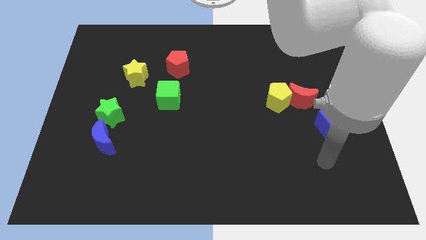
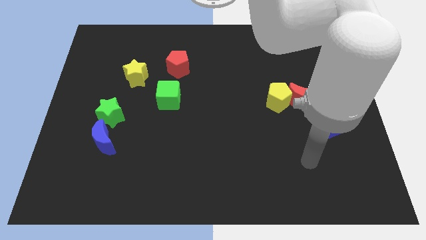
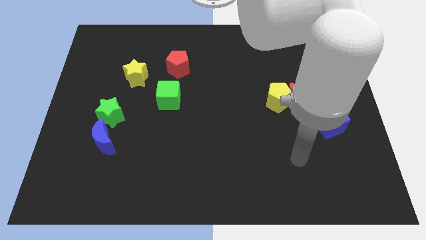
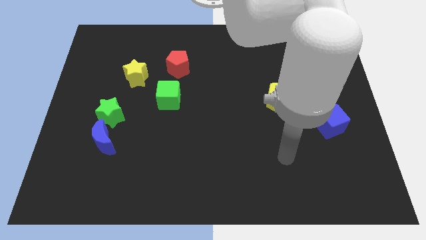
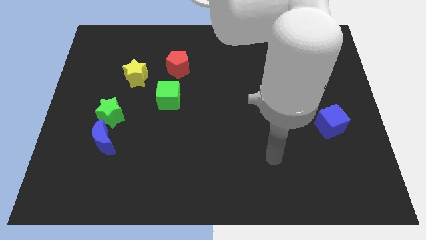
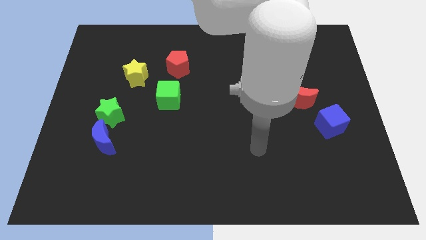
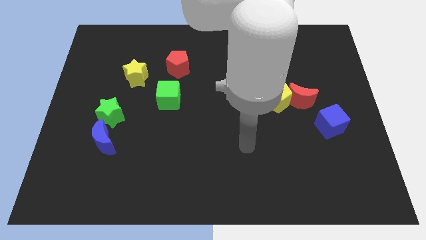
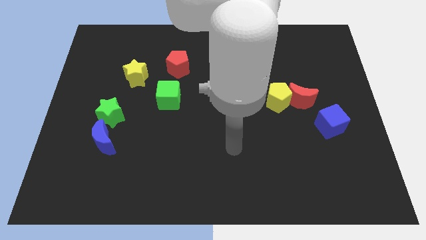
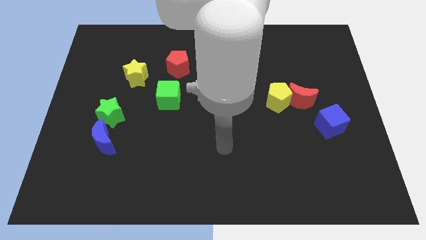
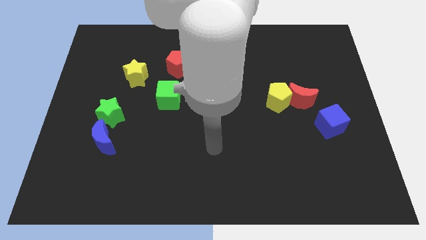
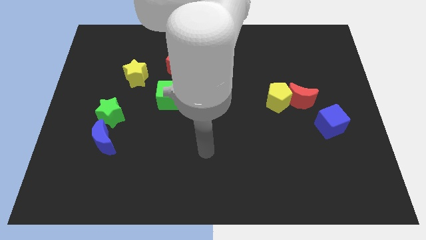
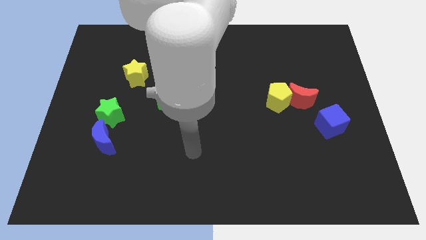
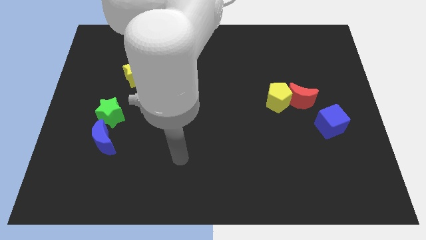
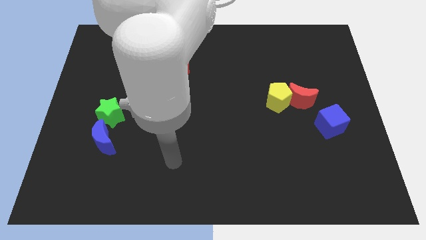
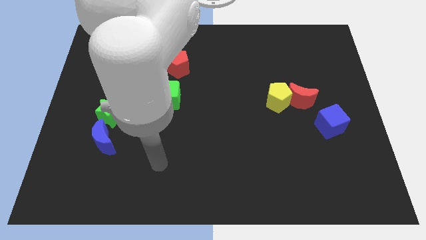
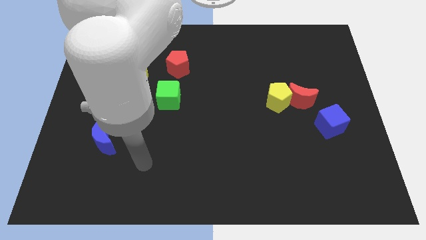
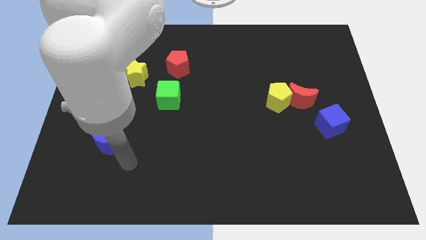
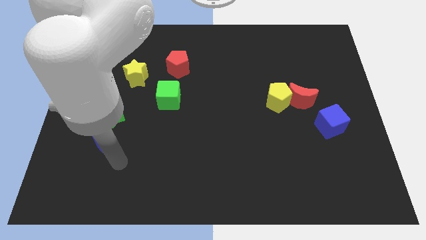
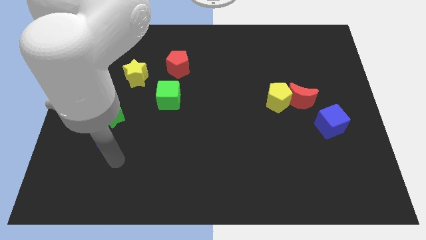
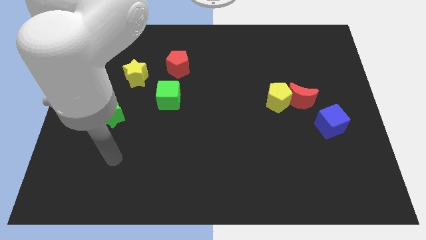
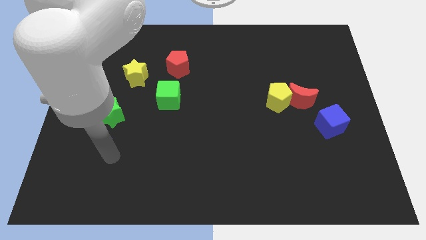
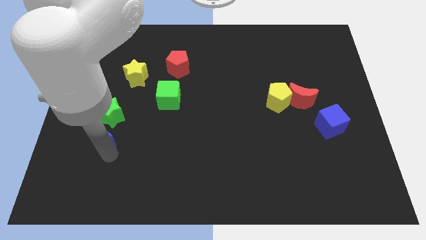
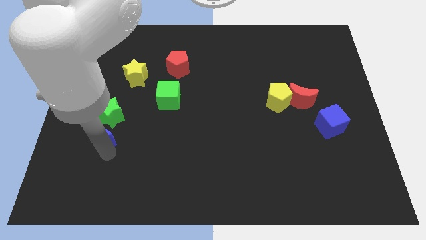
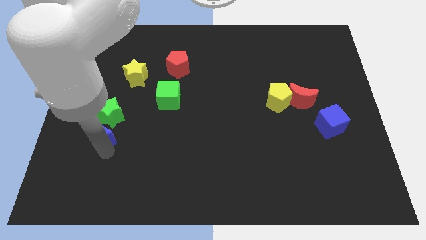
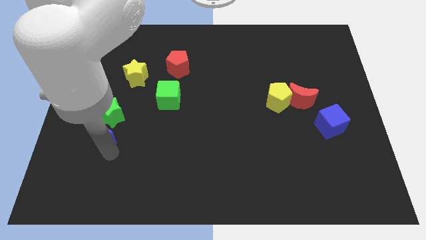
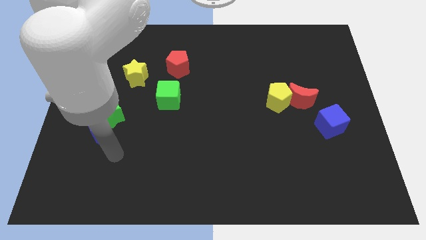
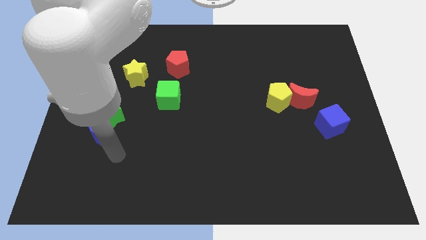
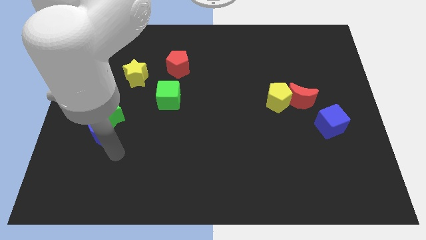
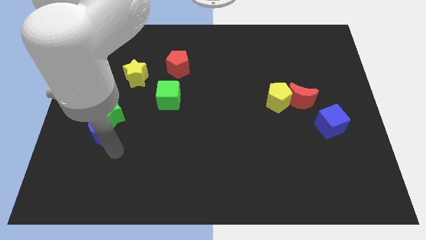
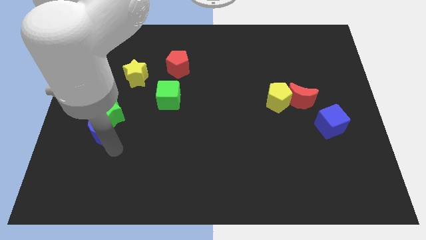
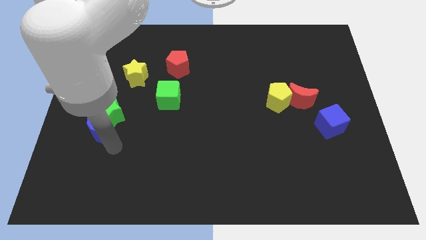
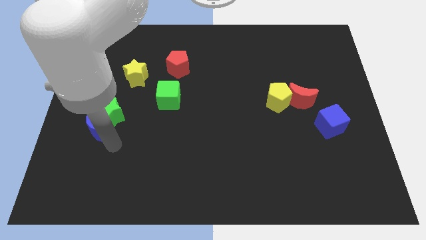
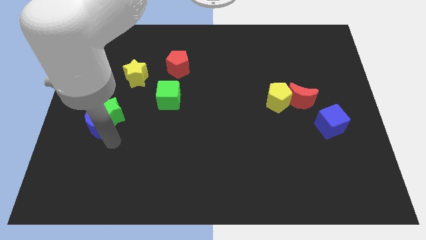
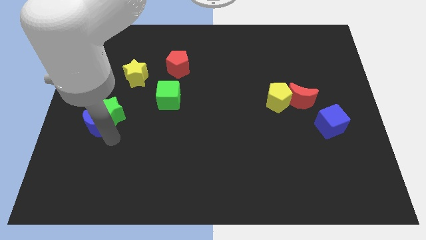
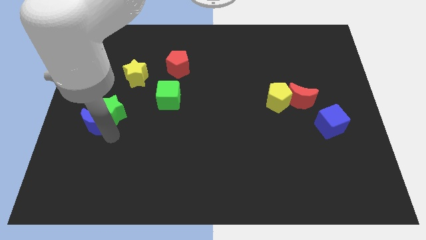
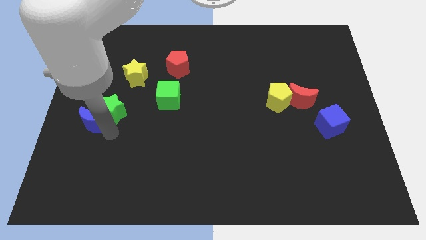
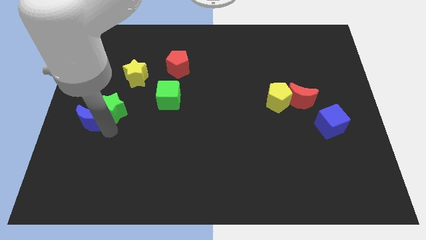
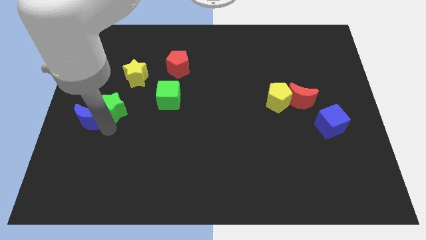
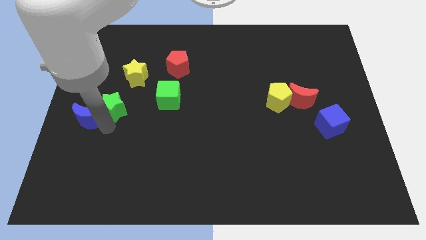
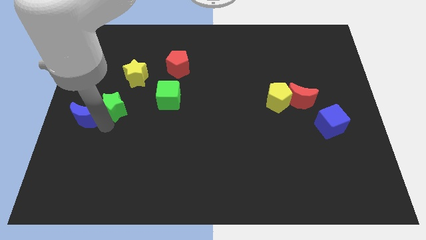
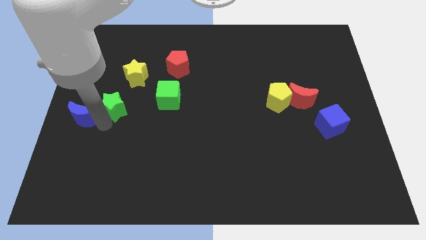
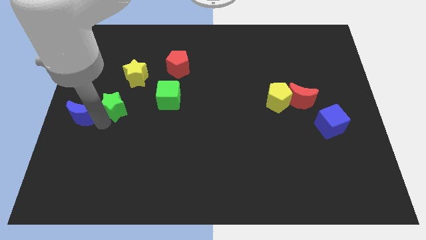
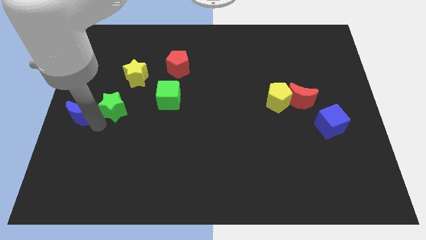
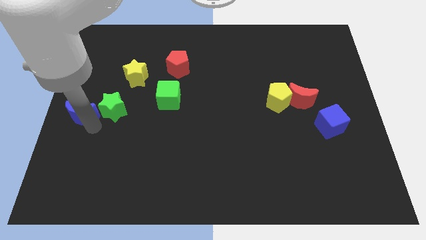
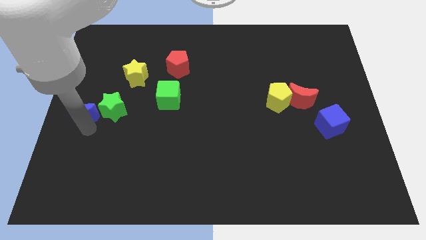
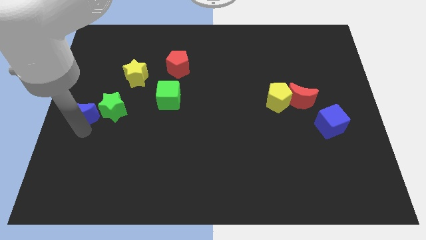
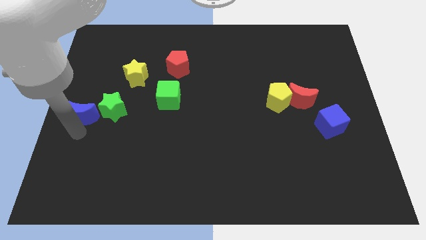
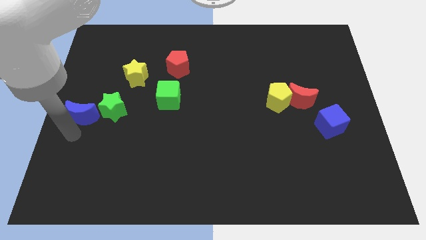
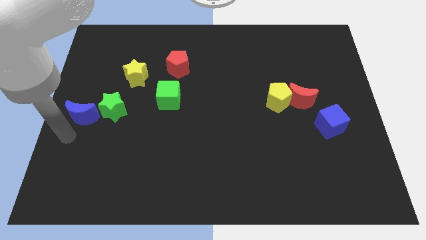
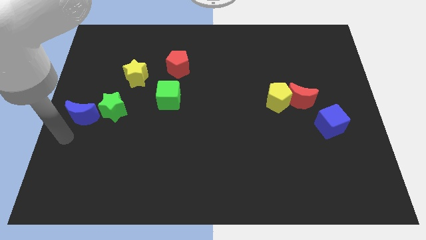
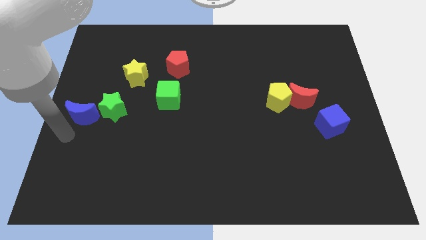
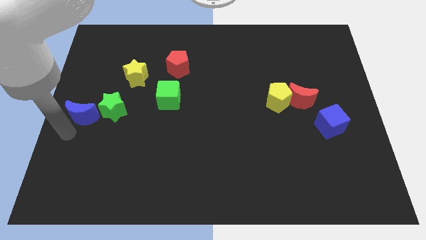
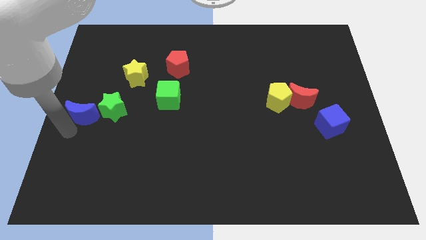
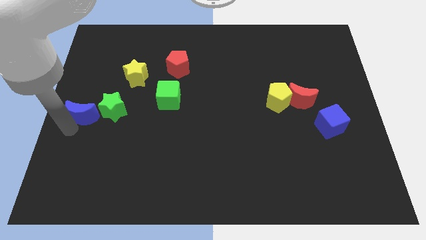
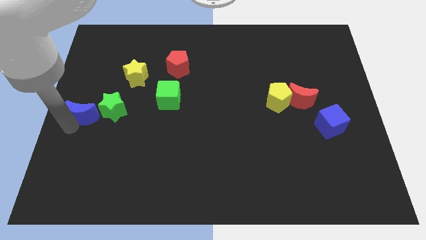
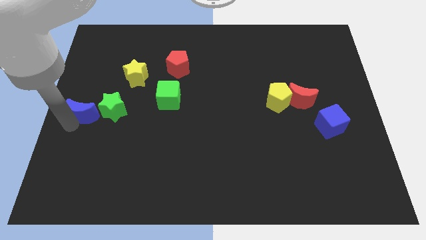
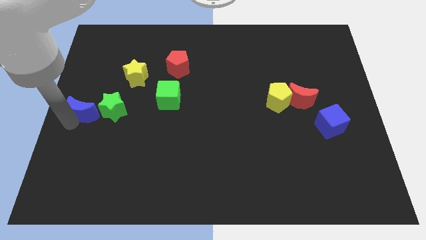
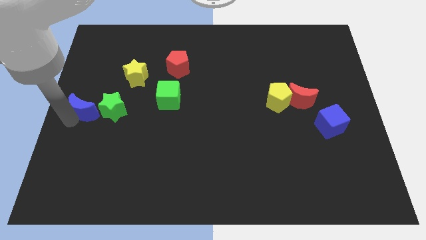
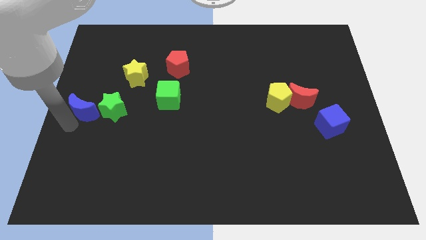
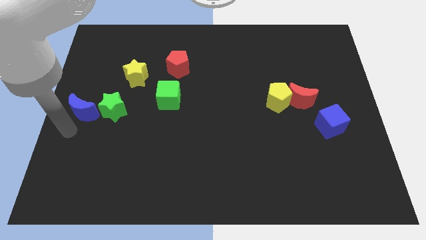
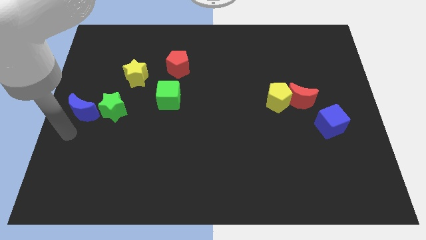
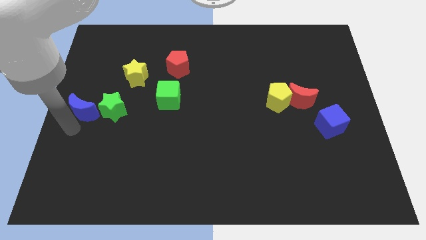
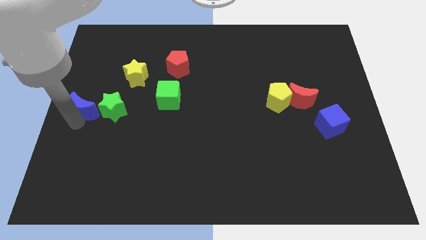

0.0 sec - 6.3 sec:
push the blue moon a little bit upwards

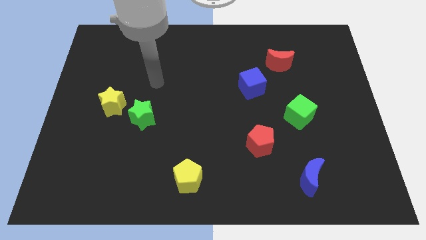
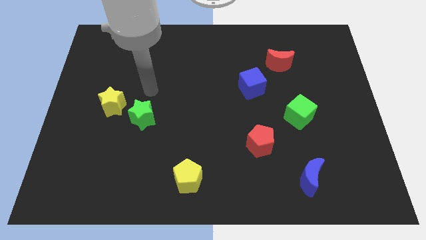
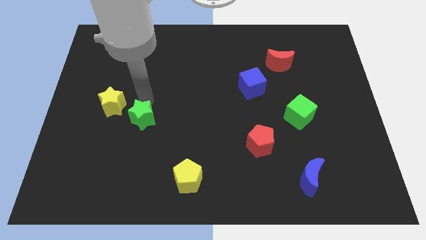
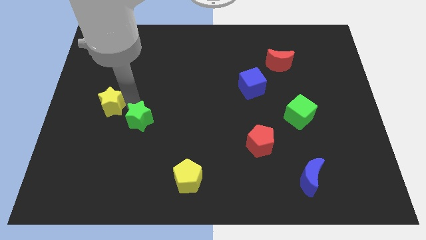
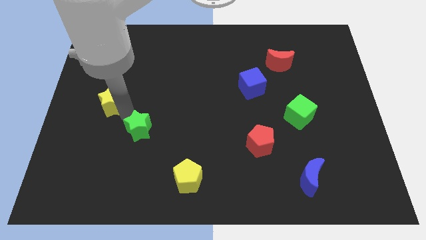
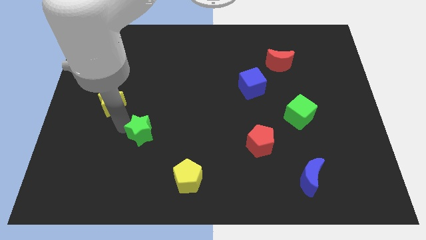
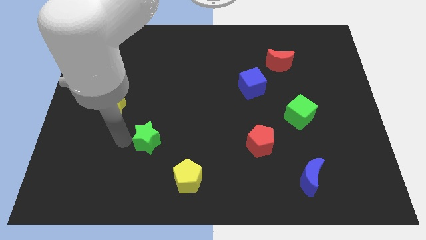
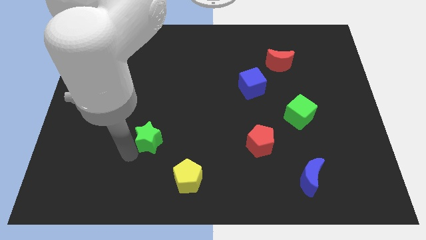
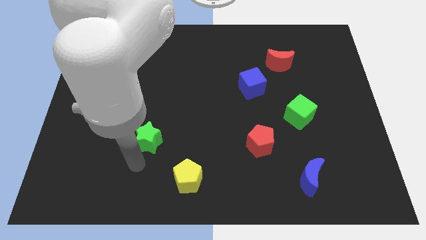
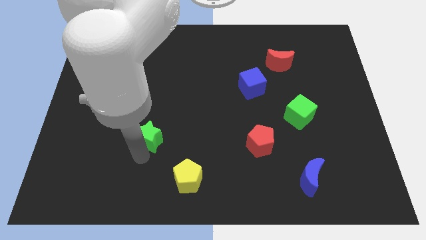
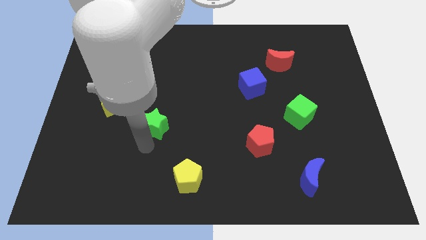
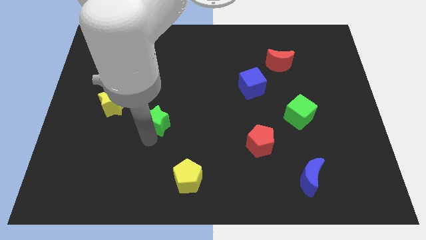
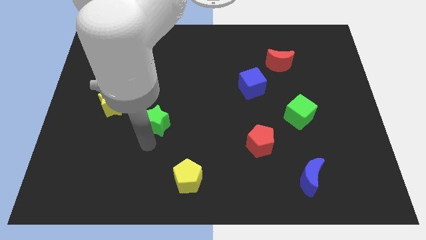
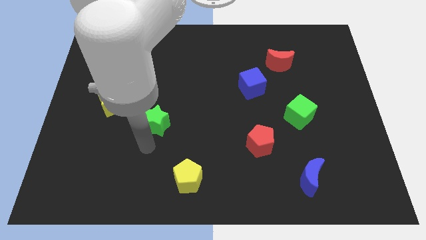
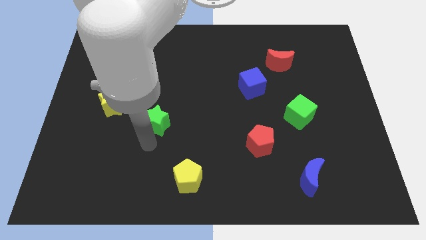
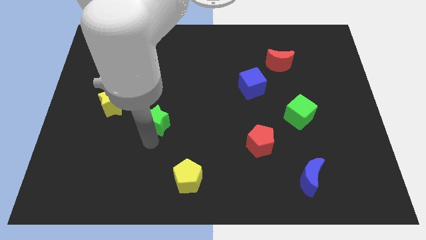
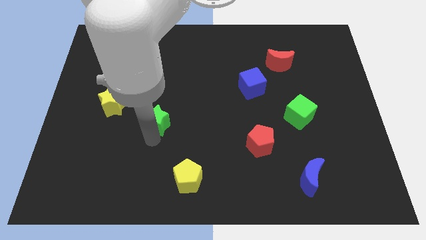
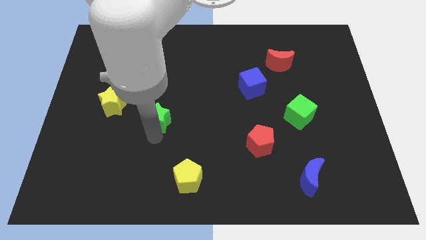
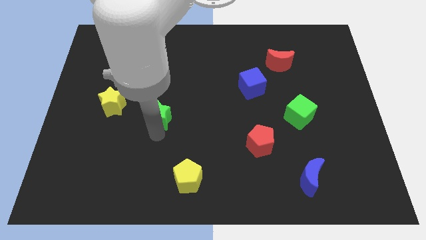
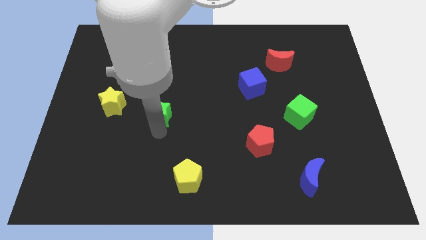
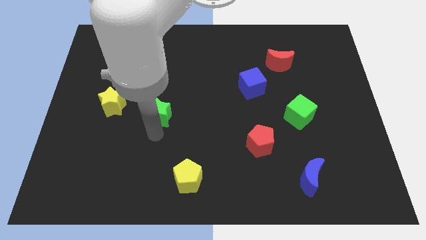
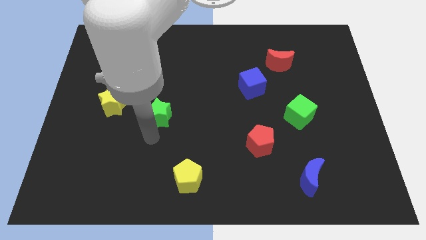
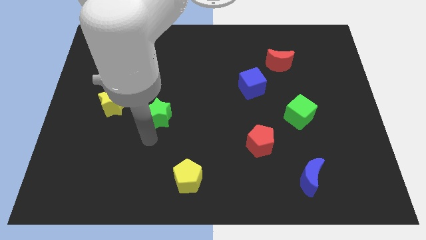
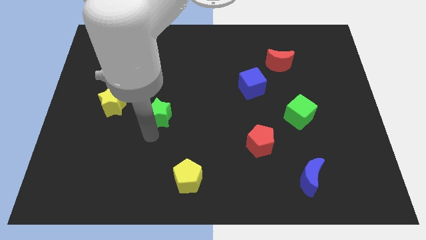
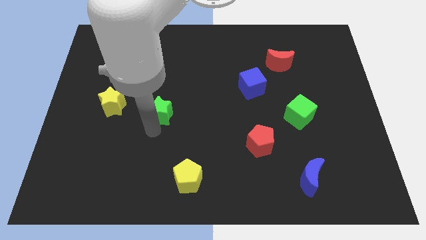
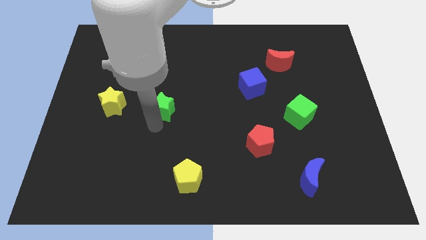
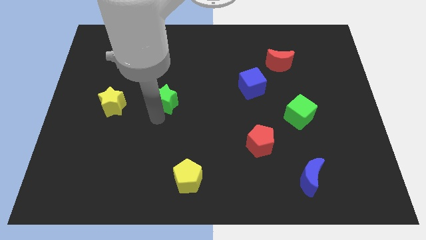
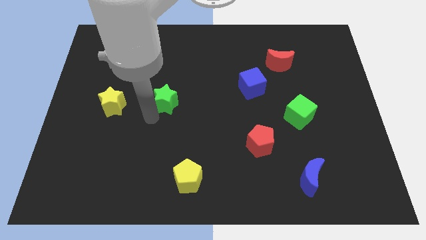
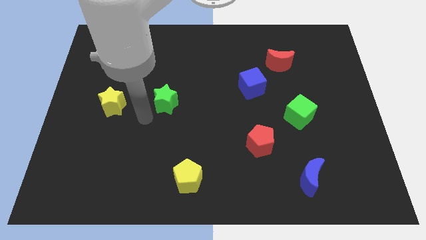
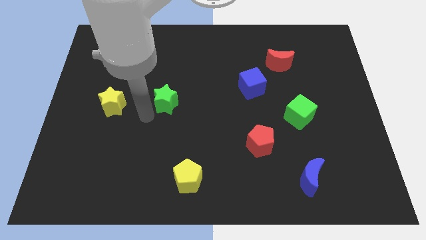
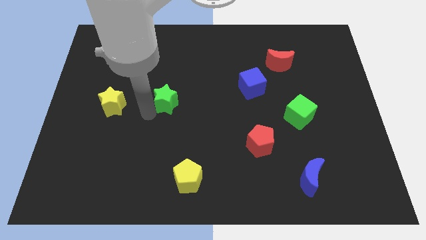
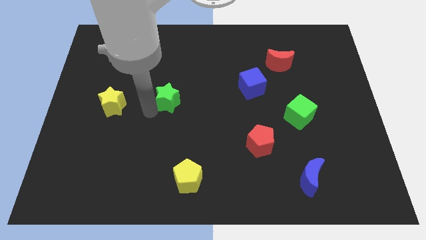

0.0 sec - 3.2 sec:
slightly move the green star upwards and right
